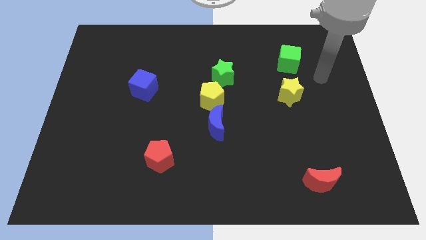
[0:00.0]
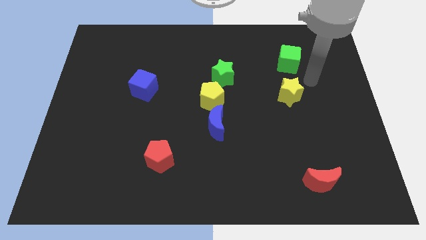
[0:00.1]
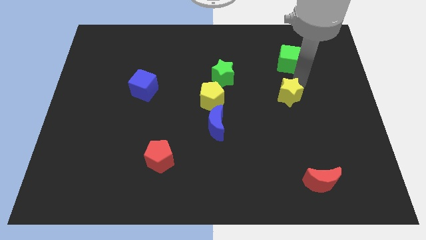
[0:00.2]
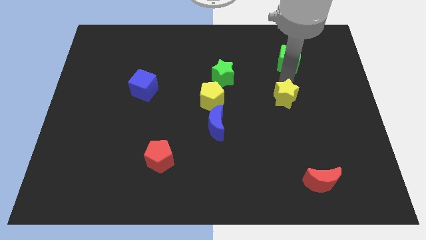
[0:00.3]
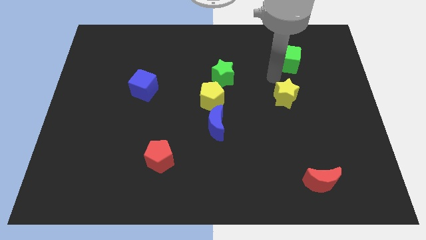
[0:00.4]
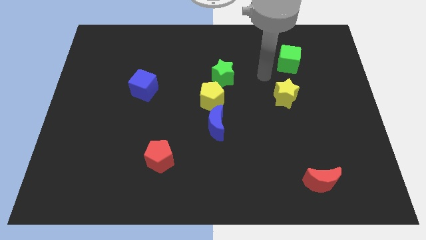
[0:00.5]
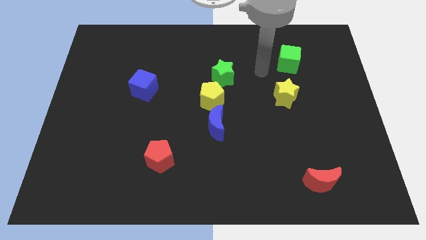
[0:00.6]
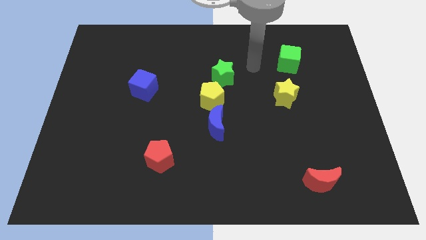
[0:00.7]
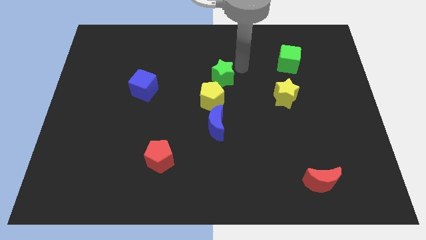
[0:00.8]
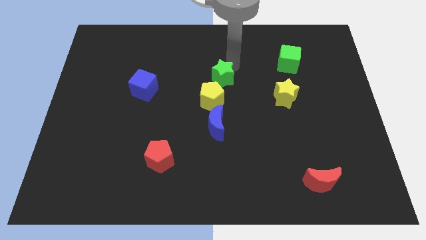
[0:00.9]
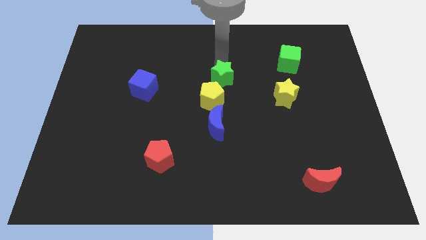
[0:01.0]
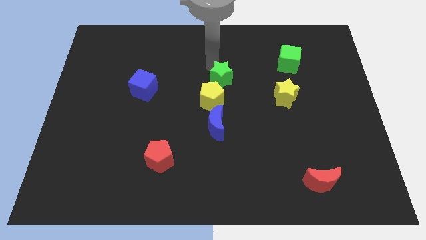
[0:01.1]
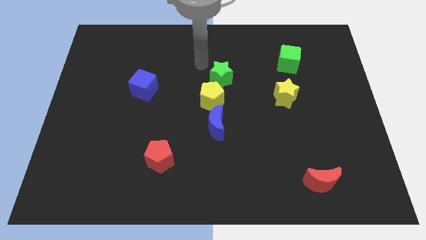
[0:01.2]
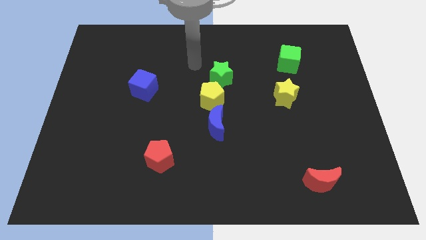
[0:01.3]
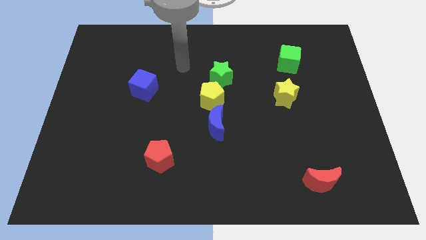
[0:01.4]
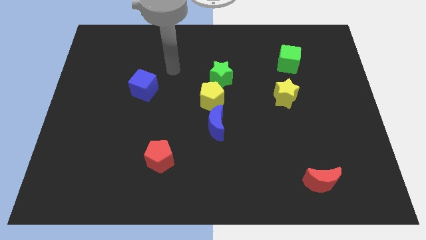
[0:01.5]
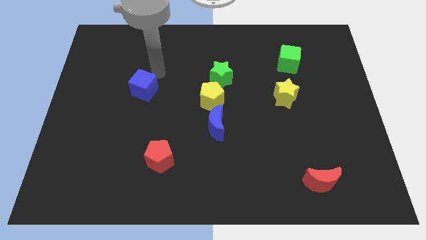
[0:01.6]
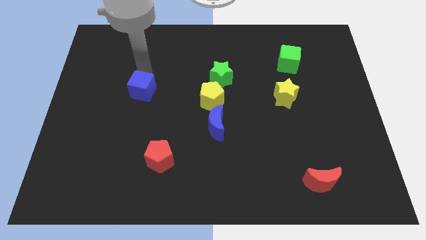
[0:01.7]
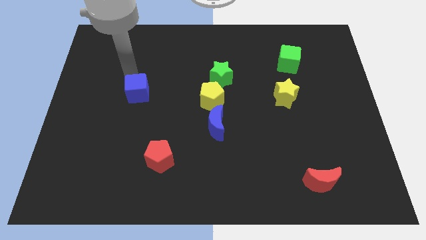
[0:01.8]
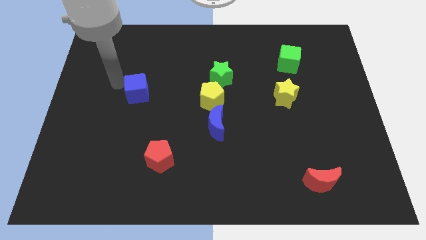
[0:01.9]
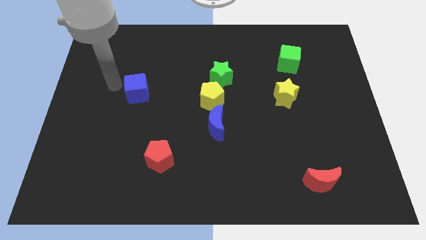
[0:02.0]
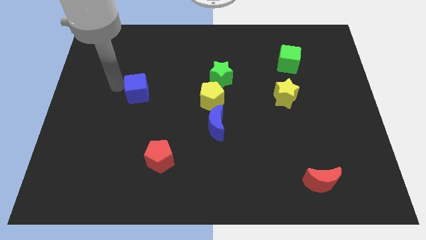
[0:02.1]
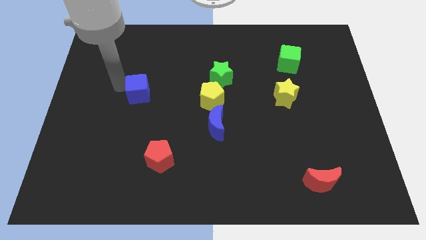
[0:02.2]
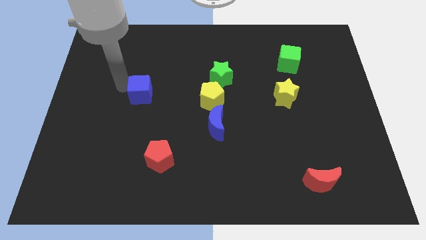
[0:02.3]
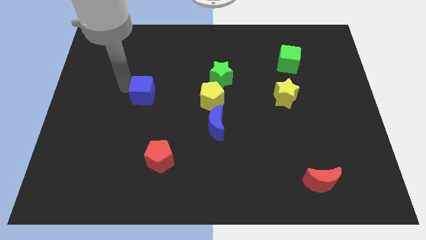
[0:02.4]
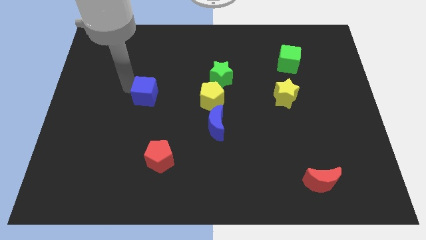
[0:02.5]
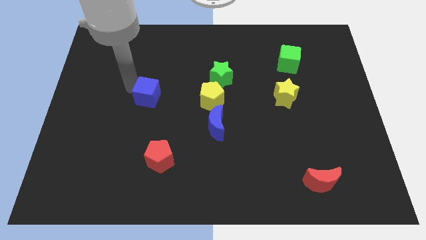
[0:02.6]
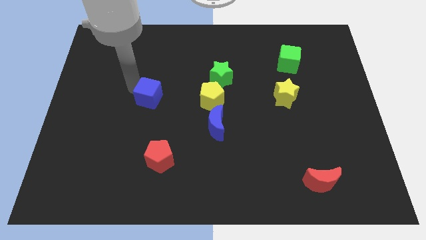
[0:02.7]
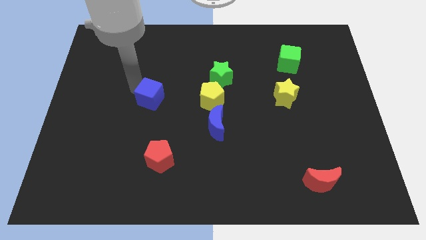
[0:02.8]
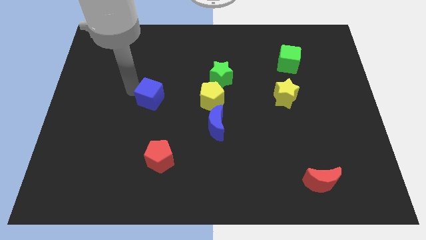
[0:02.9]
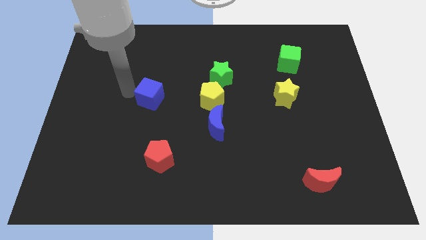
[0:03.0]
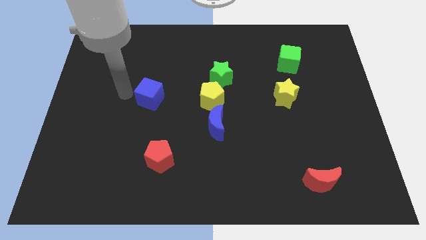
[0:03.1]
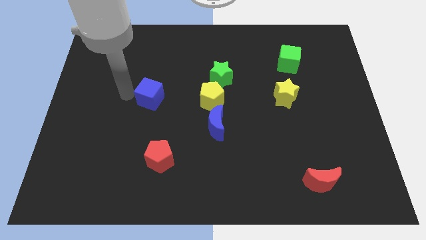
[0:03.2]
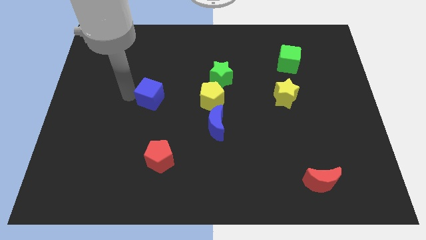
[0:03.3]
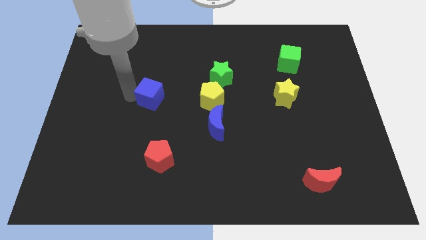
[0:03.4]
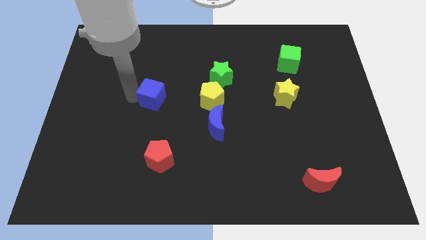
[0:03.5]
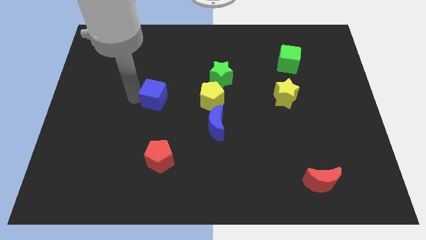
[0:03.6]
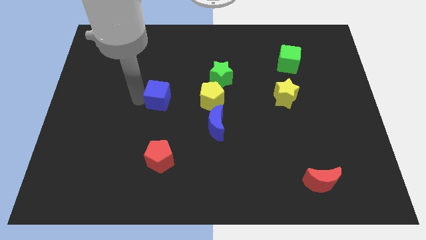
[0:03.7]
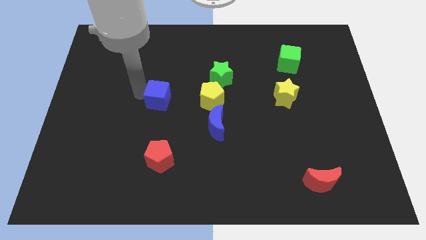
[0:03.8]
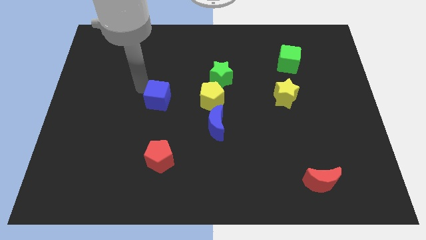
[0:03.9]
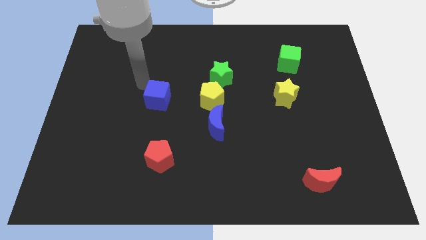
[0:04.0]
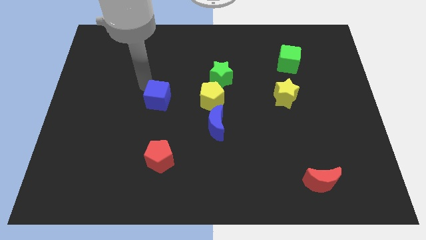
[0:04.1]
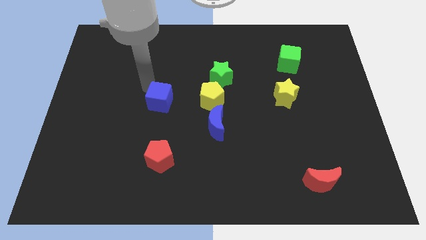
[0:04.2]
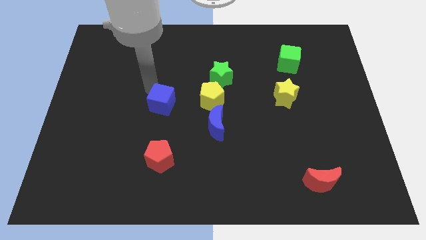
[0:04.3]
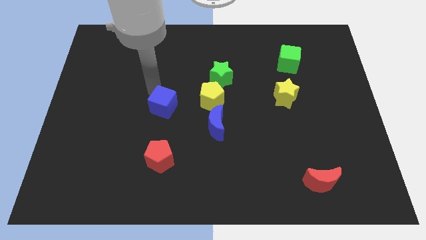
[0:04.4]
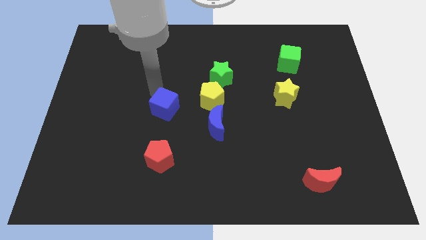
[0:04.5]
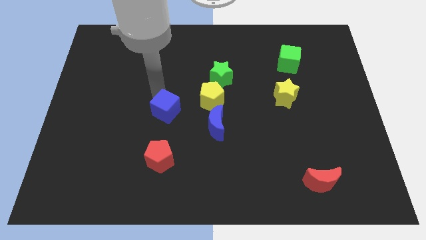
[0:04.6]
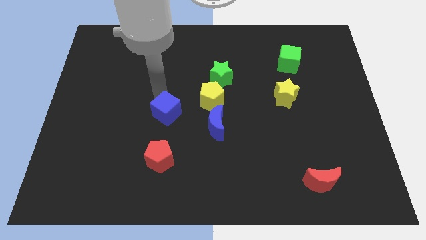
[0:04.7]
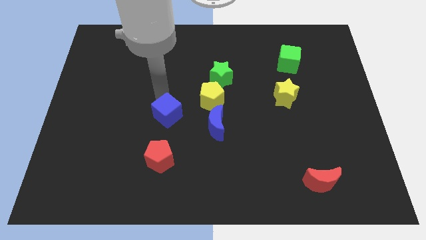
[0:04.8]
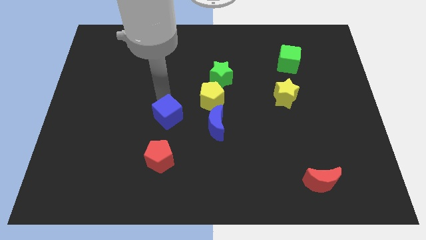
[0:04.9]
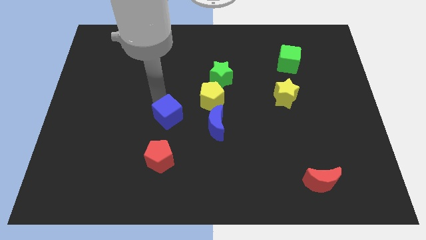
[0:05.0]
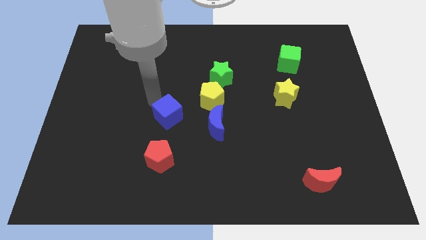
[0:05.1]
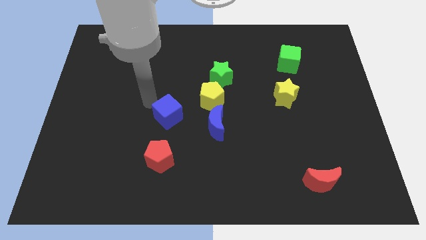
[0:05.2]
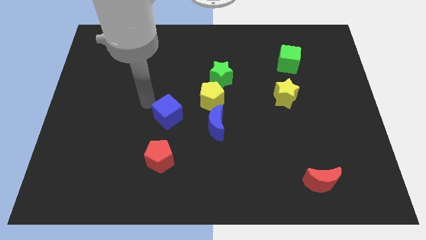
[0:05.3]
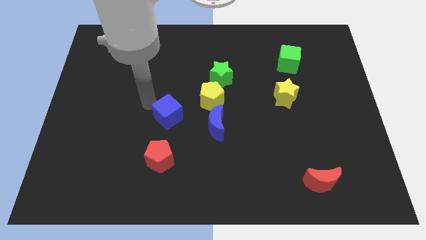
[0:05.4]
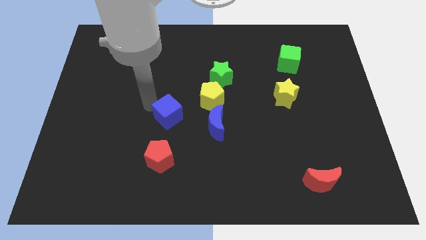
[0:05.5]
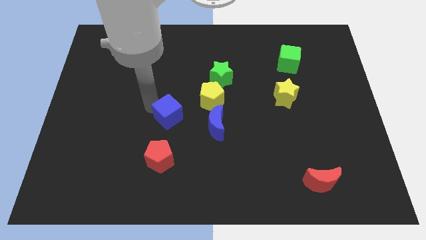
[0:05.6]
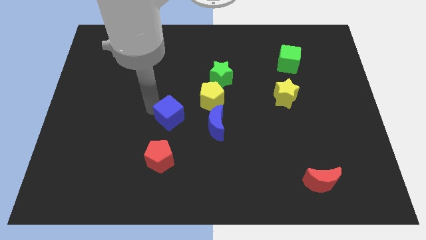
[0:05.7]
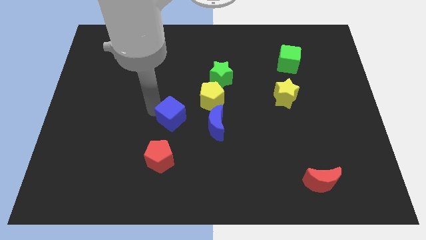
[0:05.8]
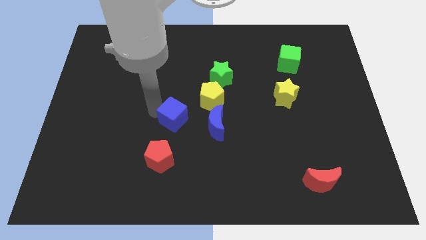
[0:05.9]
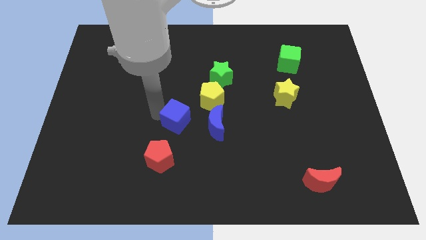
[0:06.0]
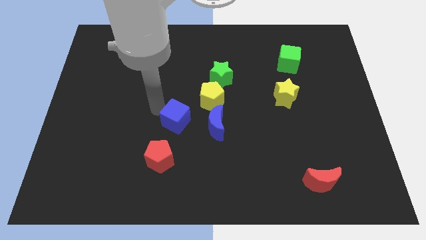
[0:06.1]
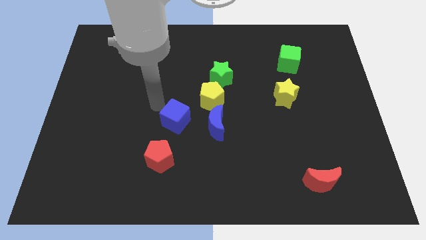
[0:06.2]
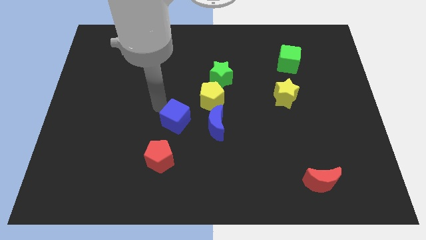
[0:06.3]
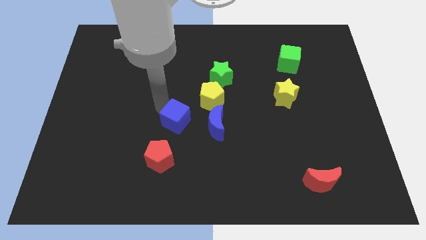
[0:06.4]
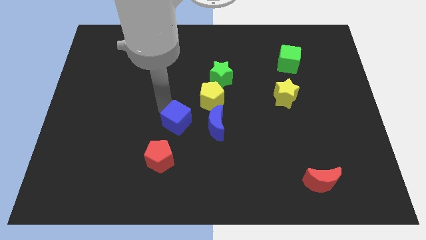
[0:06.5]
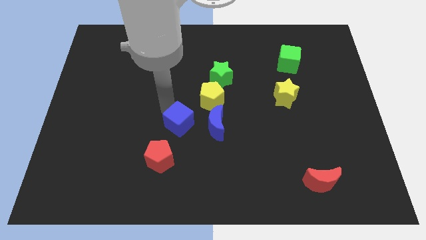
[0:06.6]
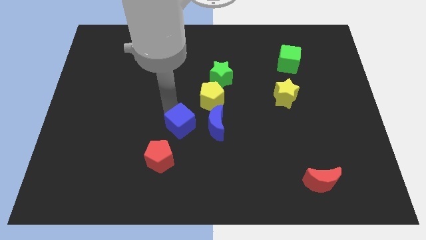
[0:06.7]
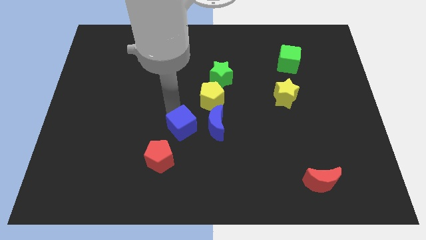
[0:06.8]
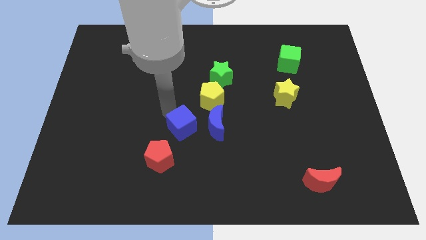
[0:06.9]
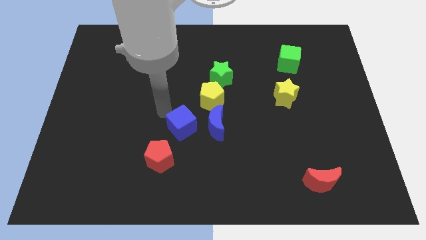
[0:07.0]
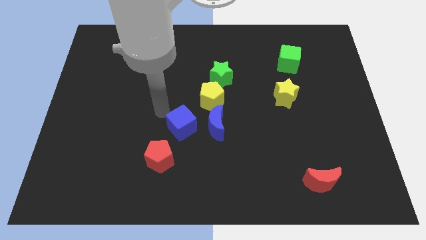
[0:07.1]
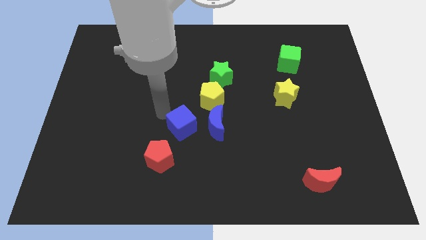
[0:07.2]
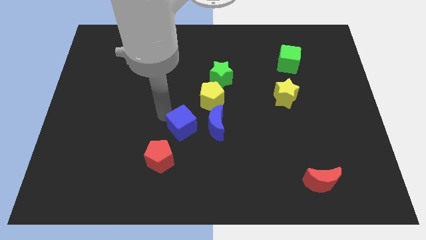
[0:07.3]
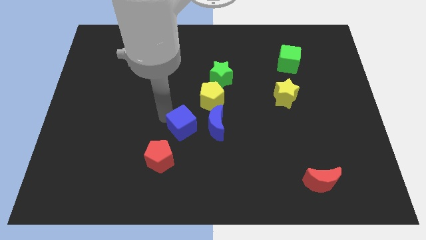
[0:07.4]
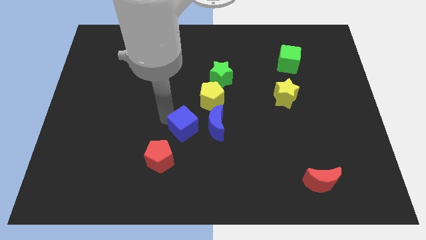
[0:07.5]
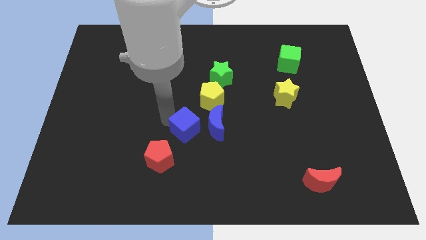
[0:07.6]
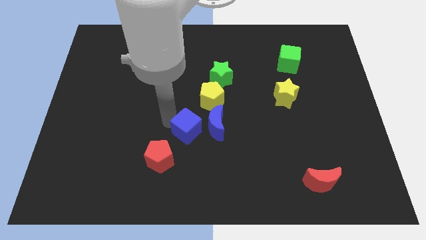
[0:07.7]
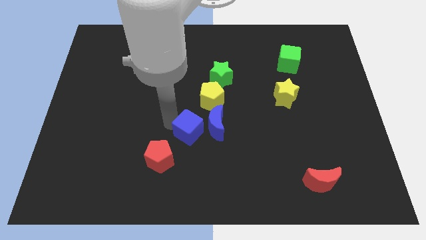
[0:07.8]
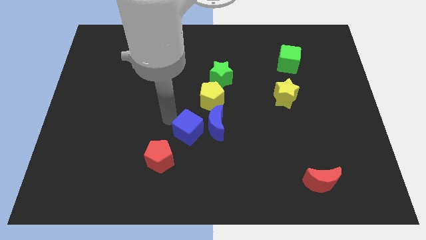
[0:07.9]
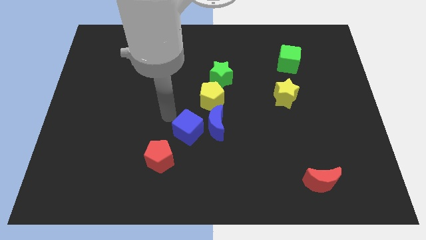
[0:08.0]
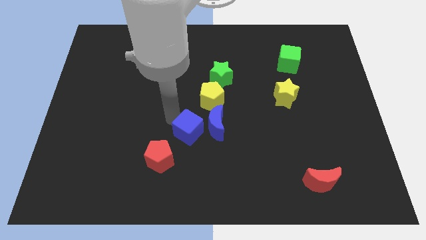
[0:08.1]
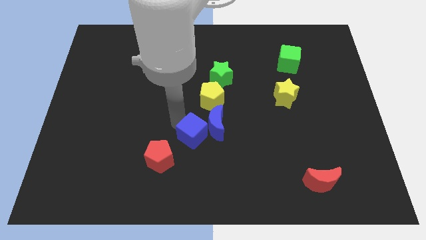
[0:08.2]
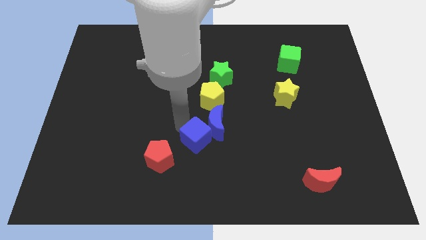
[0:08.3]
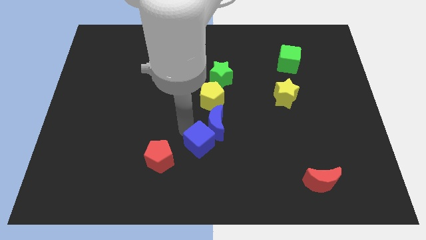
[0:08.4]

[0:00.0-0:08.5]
slide the blue cube downwards and to the right
